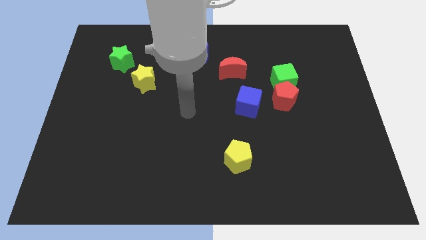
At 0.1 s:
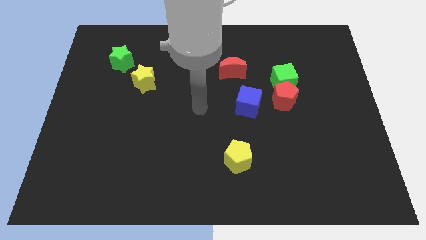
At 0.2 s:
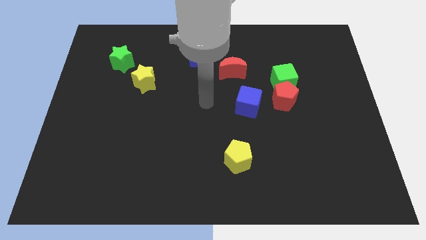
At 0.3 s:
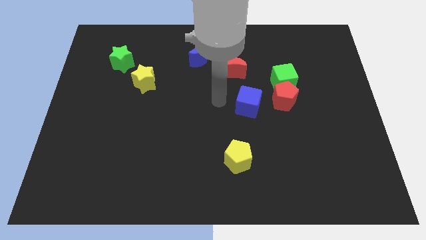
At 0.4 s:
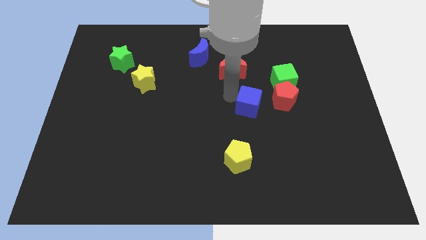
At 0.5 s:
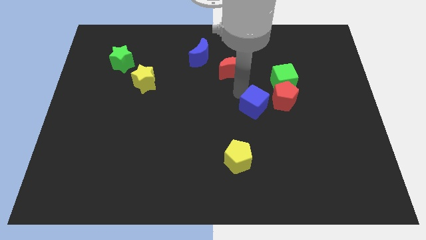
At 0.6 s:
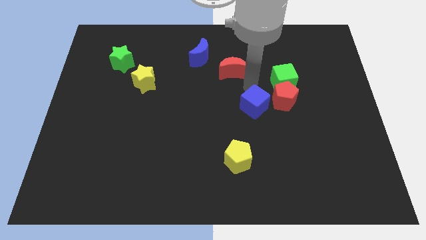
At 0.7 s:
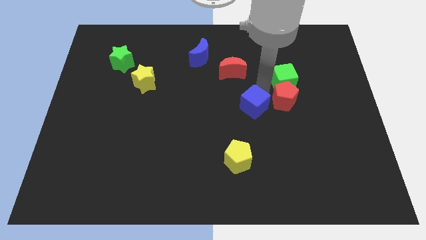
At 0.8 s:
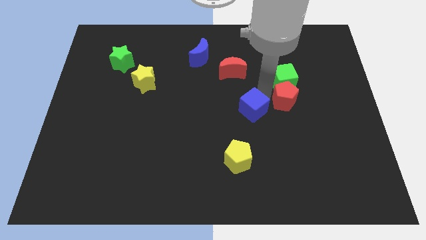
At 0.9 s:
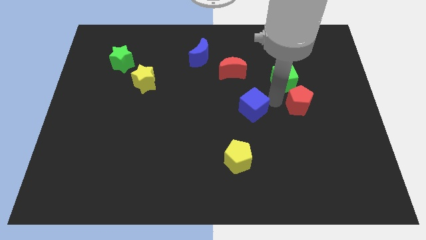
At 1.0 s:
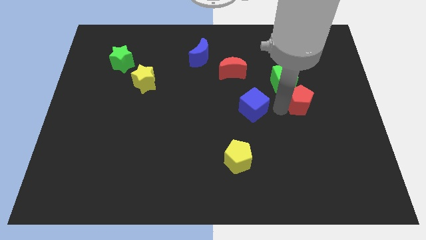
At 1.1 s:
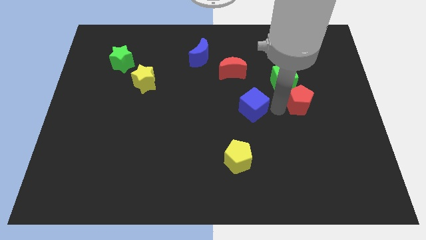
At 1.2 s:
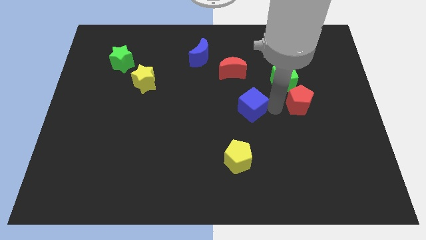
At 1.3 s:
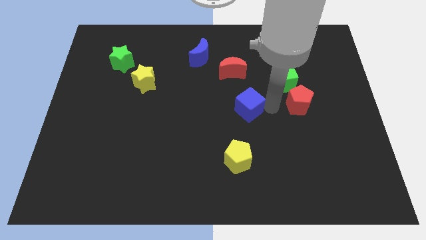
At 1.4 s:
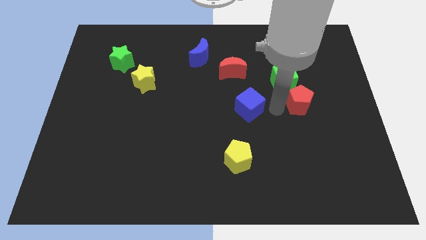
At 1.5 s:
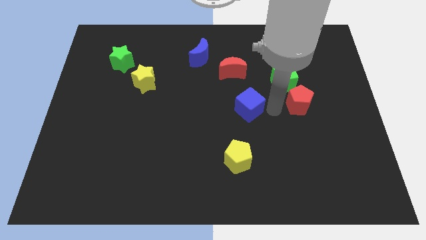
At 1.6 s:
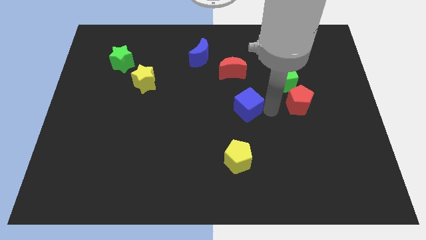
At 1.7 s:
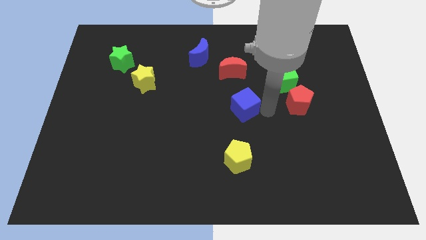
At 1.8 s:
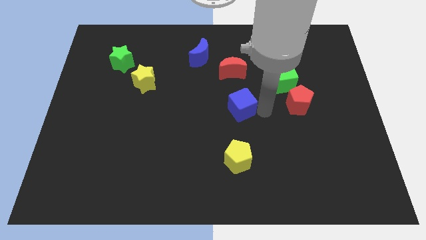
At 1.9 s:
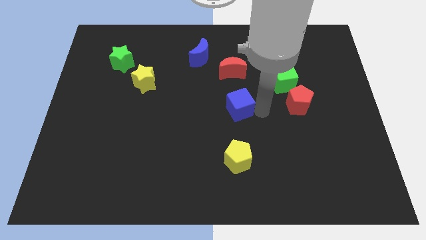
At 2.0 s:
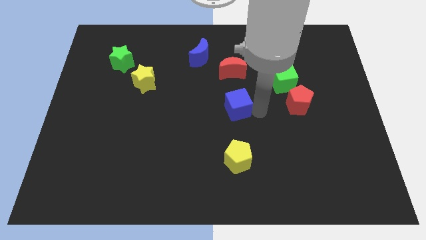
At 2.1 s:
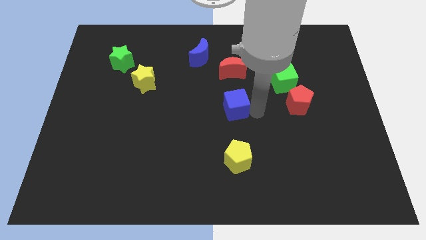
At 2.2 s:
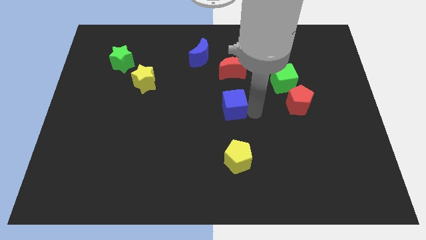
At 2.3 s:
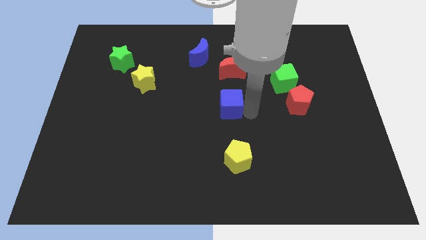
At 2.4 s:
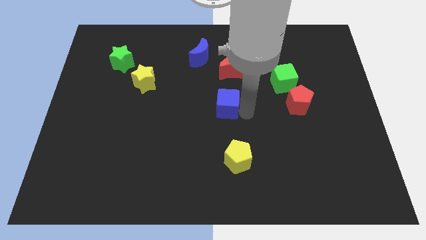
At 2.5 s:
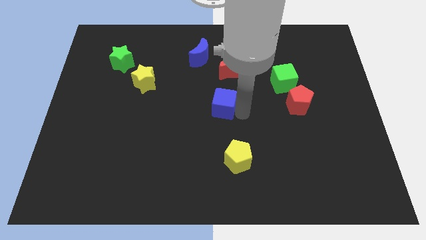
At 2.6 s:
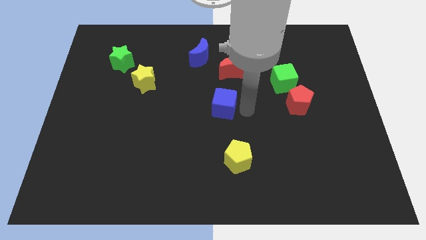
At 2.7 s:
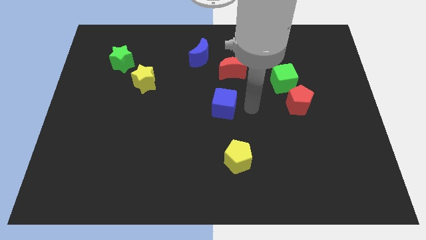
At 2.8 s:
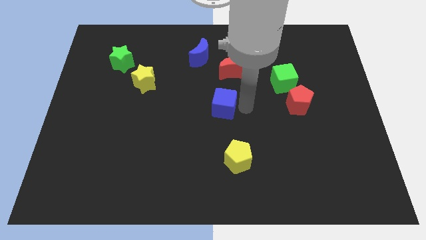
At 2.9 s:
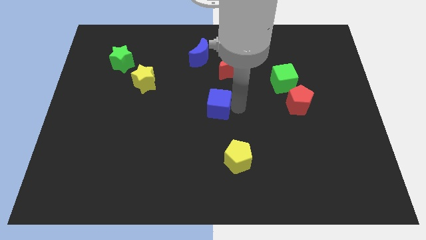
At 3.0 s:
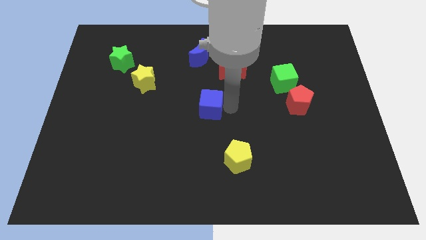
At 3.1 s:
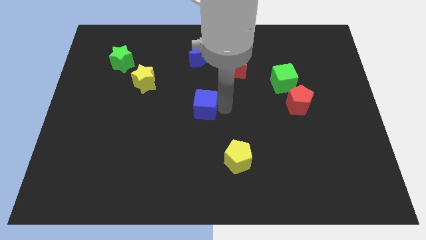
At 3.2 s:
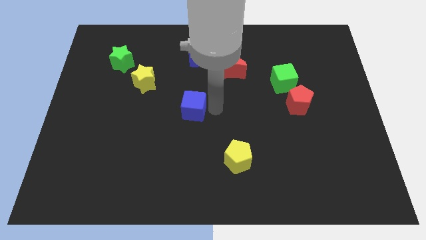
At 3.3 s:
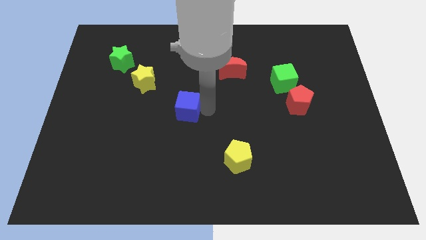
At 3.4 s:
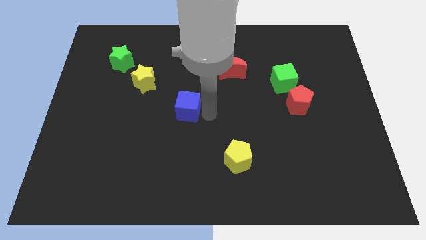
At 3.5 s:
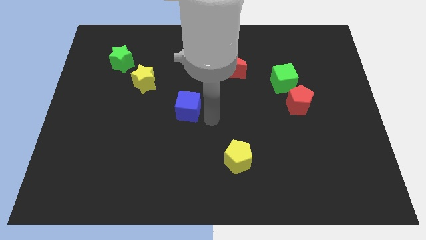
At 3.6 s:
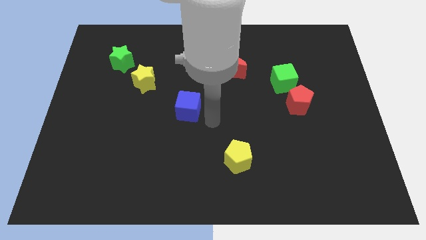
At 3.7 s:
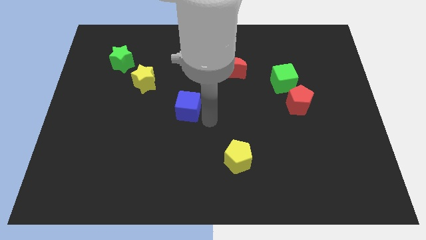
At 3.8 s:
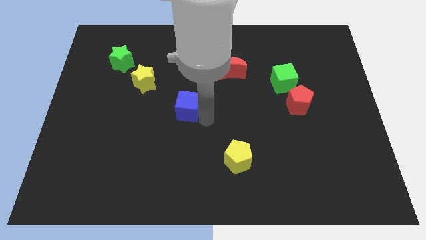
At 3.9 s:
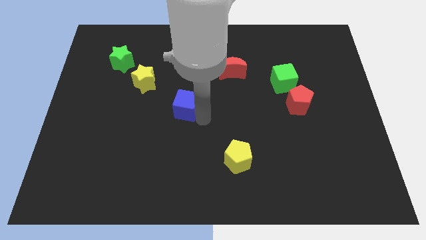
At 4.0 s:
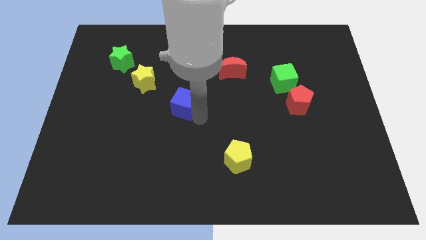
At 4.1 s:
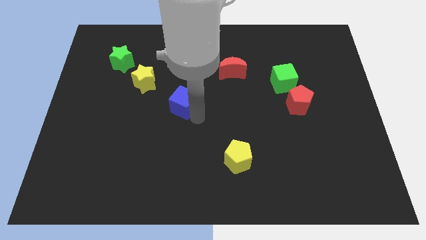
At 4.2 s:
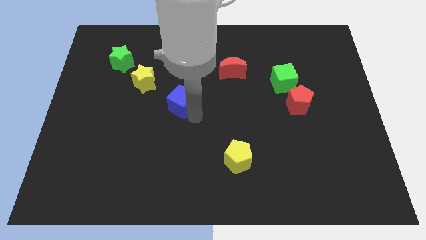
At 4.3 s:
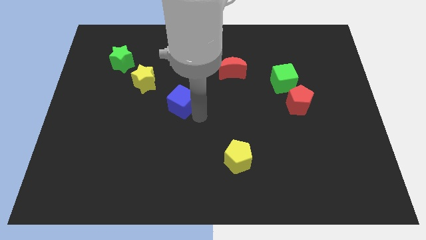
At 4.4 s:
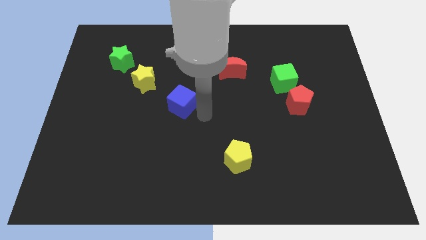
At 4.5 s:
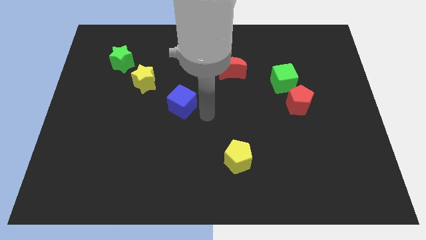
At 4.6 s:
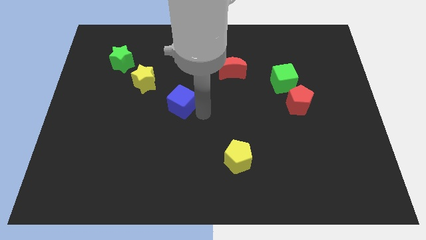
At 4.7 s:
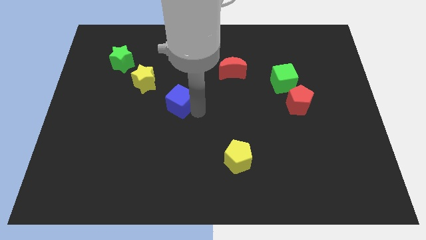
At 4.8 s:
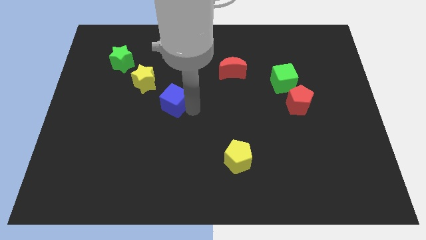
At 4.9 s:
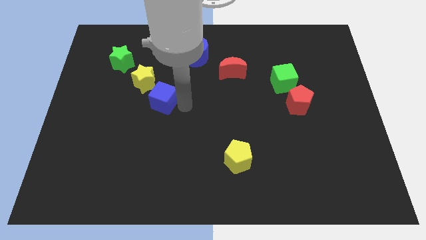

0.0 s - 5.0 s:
push the blue cube to the left

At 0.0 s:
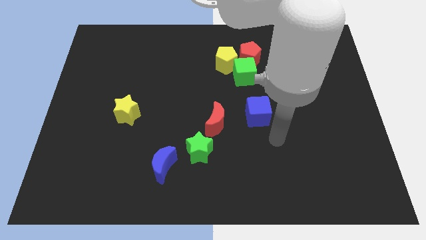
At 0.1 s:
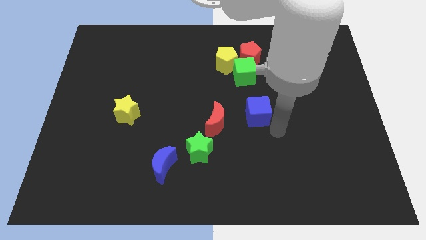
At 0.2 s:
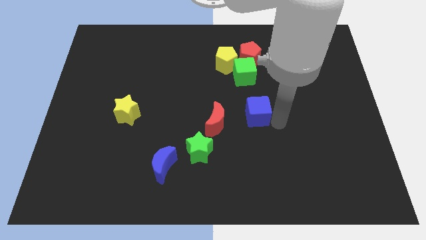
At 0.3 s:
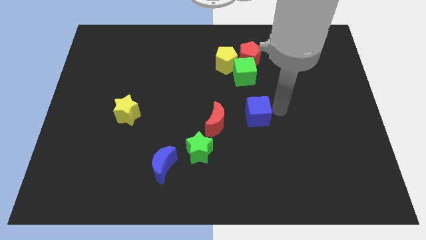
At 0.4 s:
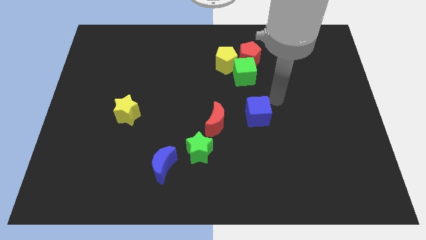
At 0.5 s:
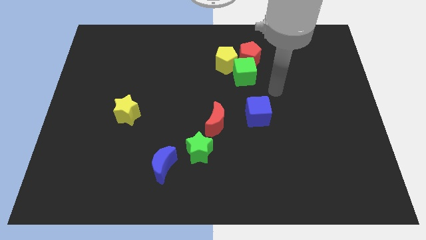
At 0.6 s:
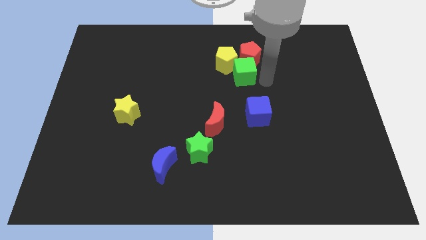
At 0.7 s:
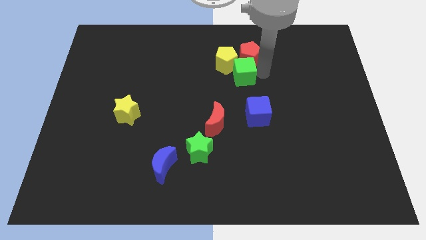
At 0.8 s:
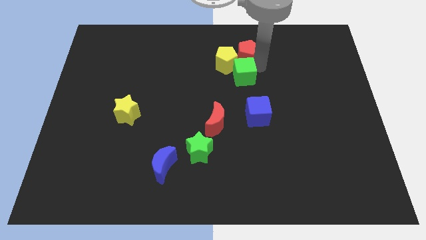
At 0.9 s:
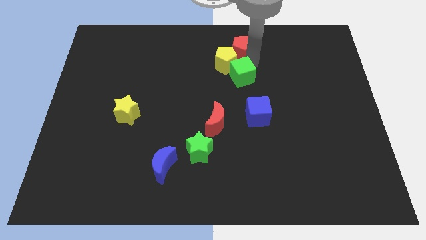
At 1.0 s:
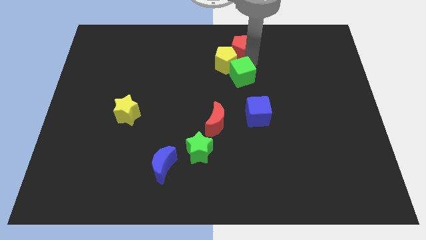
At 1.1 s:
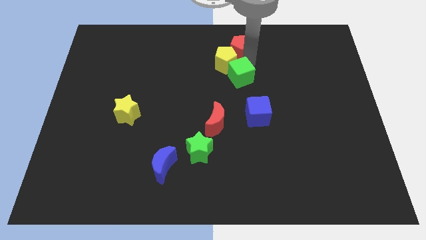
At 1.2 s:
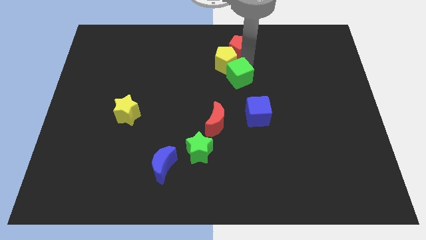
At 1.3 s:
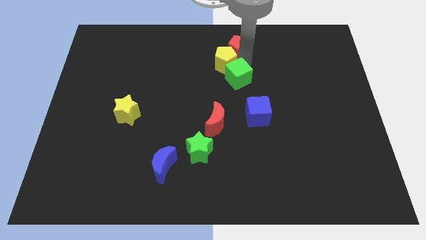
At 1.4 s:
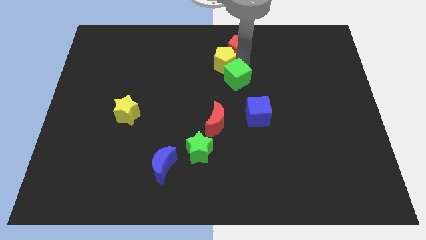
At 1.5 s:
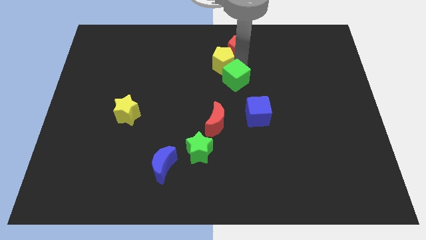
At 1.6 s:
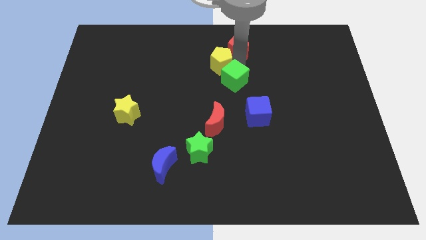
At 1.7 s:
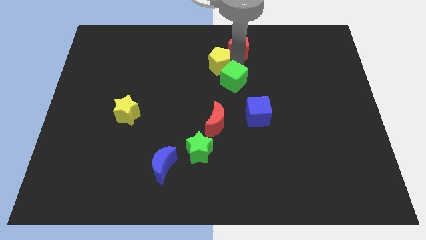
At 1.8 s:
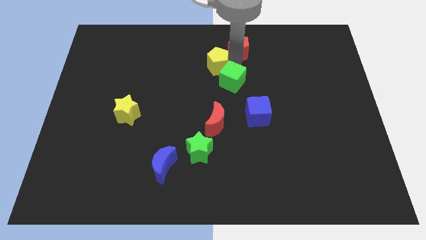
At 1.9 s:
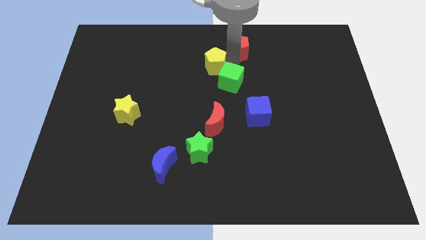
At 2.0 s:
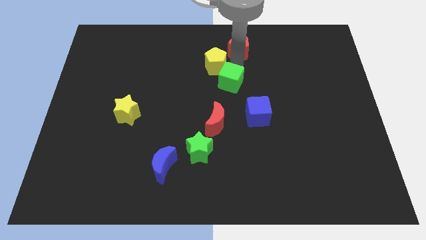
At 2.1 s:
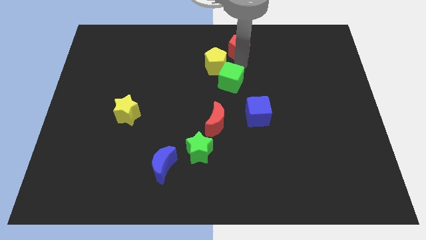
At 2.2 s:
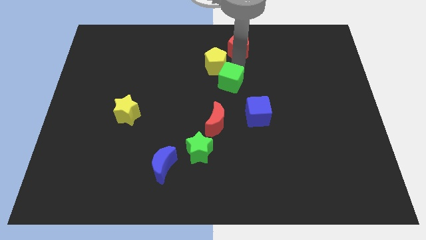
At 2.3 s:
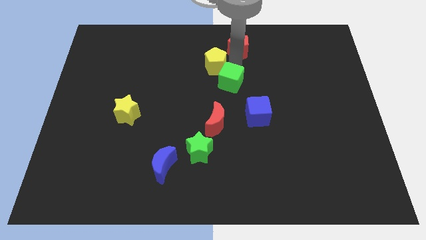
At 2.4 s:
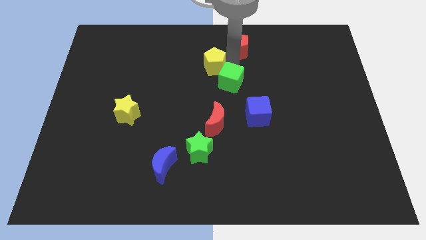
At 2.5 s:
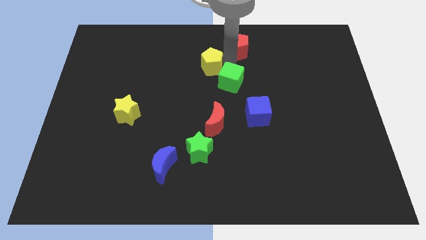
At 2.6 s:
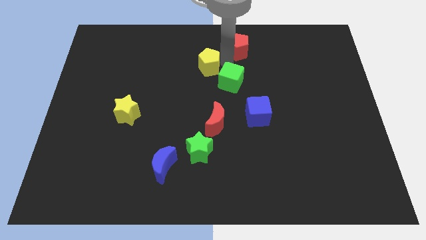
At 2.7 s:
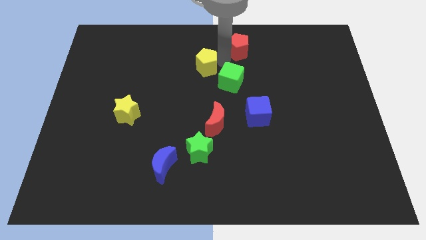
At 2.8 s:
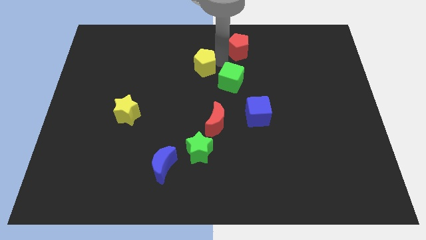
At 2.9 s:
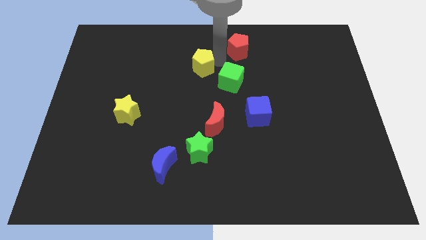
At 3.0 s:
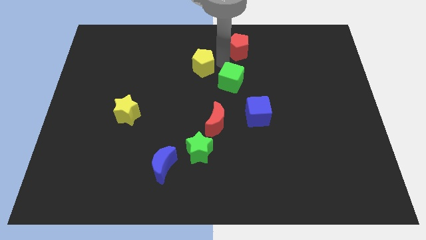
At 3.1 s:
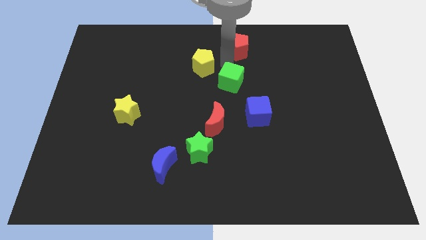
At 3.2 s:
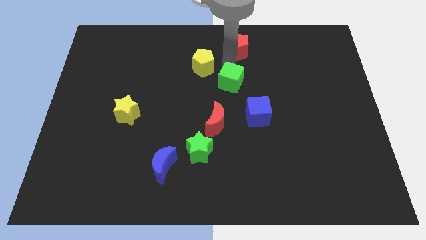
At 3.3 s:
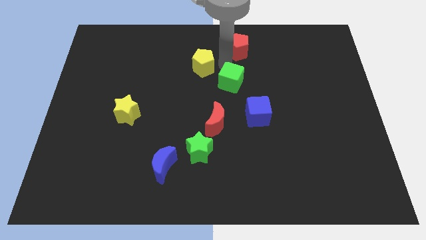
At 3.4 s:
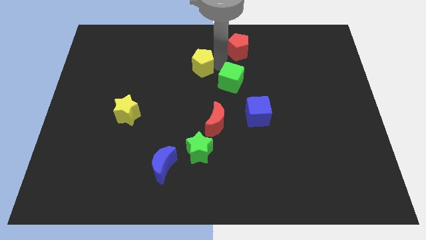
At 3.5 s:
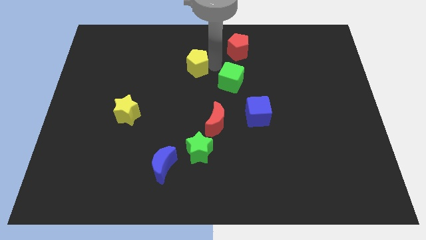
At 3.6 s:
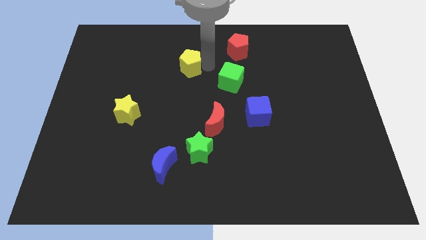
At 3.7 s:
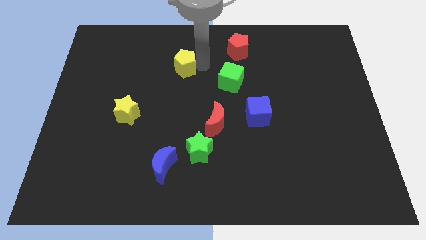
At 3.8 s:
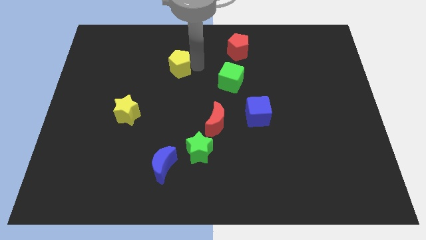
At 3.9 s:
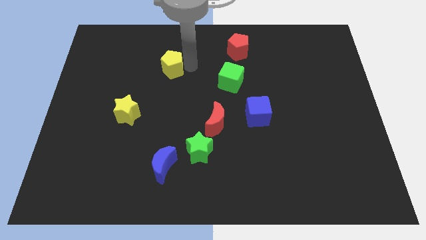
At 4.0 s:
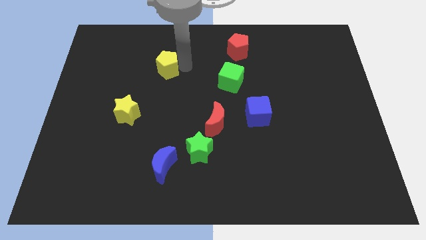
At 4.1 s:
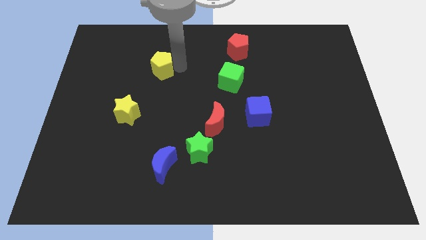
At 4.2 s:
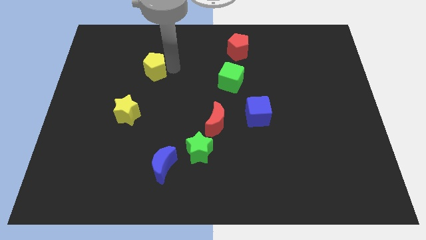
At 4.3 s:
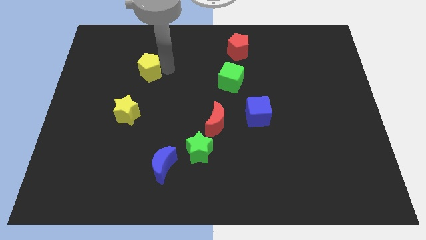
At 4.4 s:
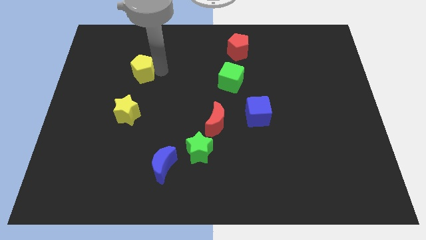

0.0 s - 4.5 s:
move the yellow pentagon left
